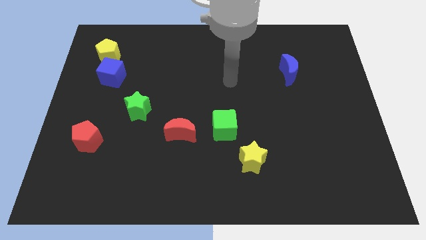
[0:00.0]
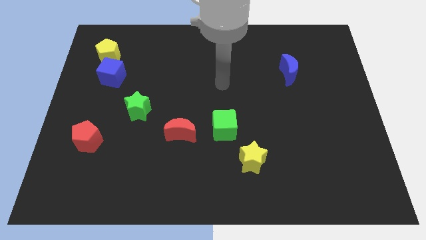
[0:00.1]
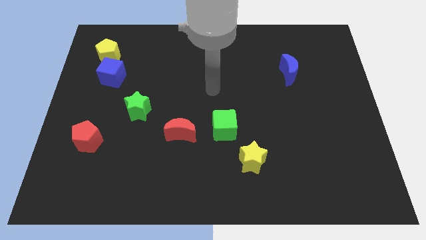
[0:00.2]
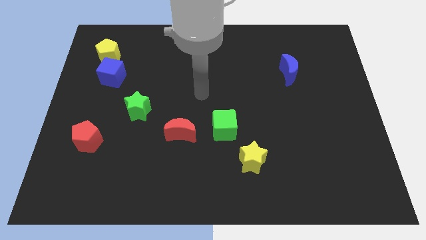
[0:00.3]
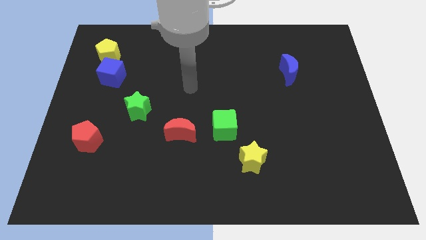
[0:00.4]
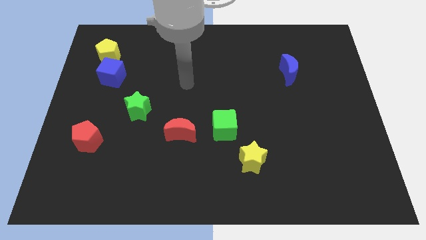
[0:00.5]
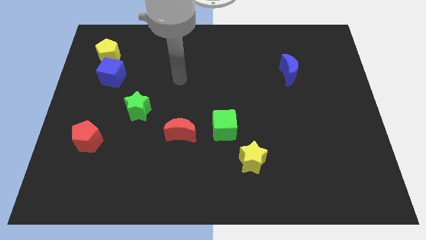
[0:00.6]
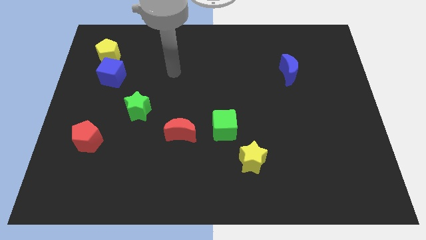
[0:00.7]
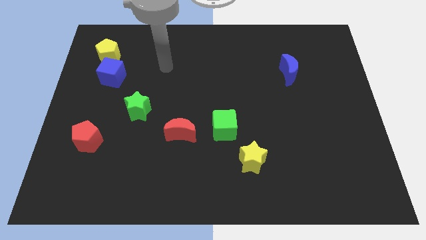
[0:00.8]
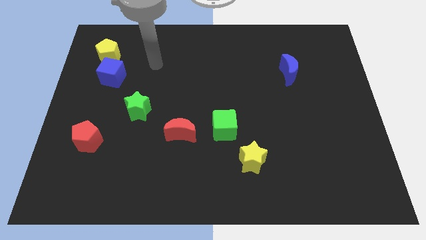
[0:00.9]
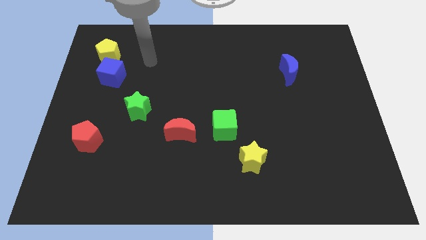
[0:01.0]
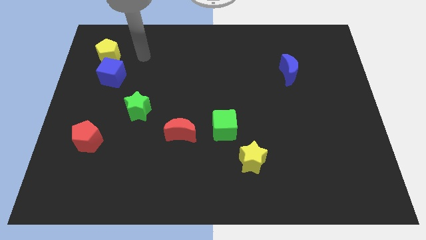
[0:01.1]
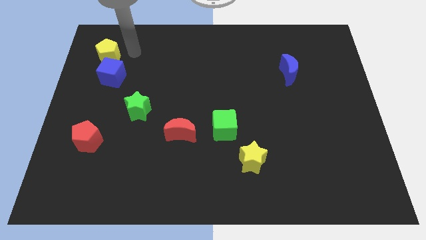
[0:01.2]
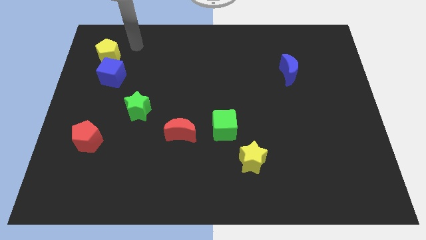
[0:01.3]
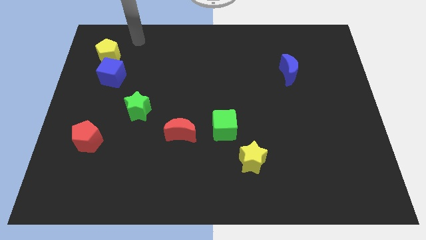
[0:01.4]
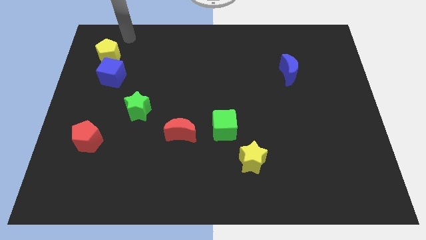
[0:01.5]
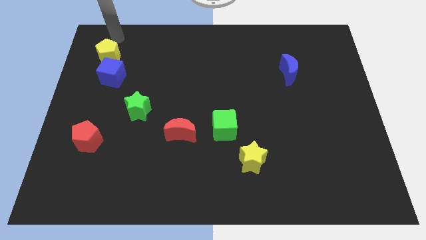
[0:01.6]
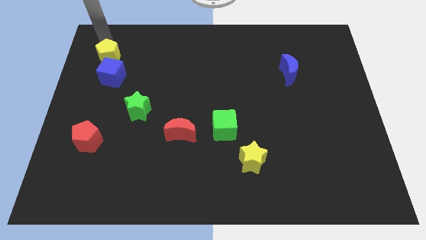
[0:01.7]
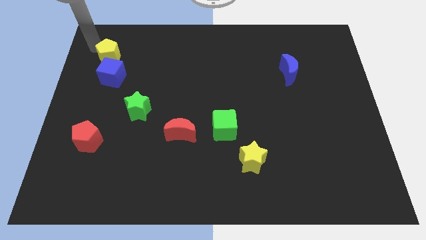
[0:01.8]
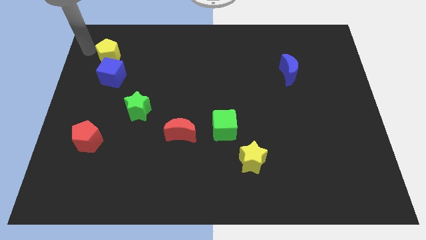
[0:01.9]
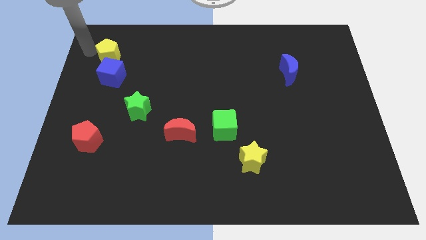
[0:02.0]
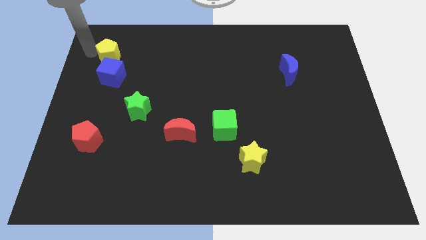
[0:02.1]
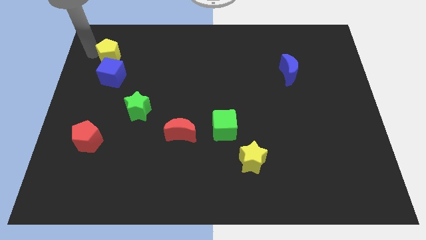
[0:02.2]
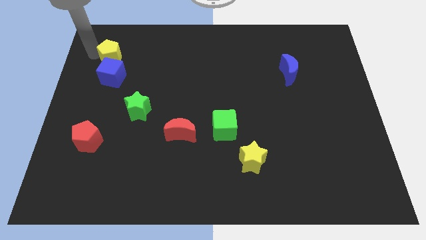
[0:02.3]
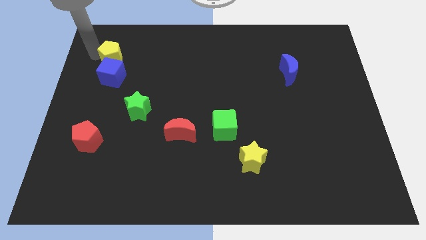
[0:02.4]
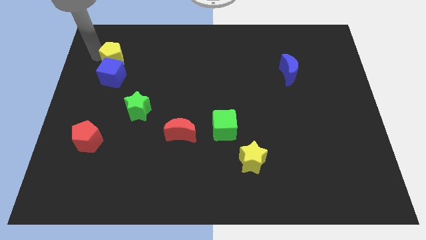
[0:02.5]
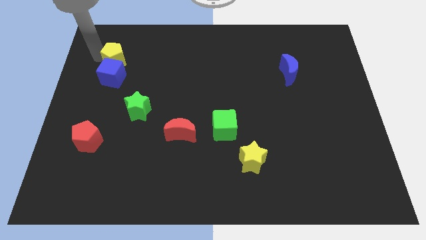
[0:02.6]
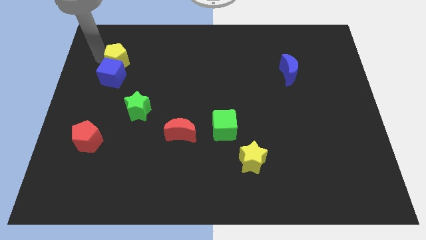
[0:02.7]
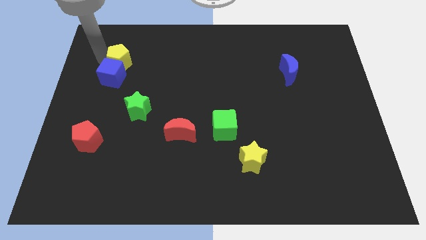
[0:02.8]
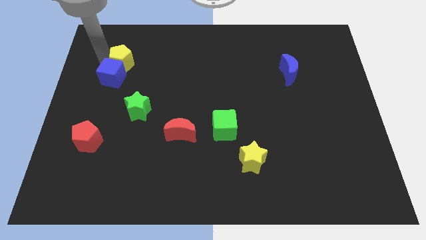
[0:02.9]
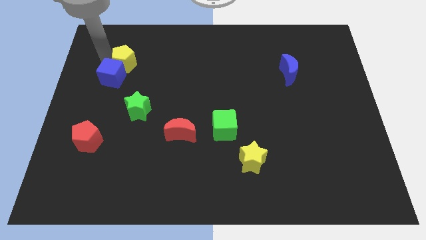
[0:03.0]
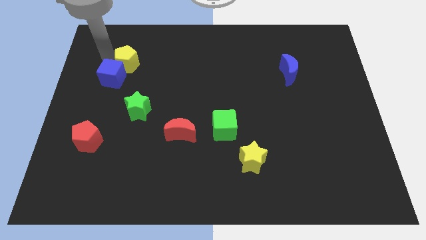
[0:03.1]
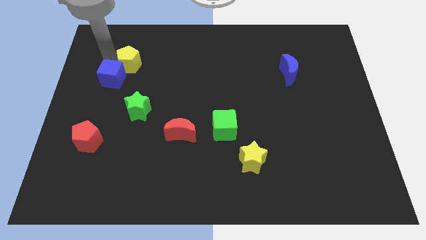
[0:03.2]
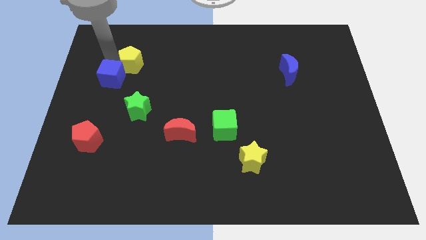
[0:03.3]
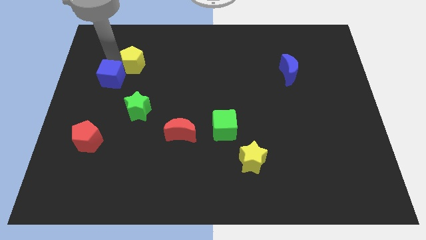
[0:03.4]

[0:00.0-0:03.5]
slightly move the yellow pentagon to the right

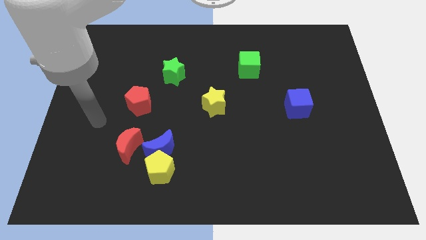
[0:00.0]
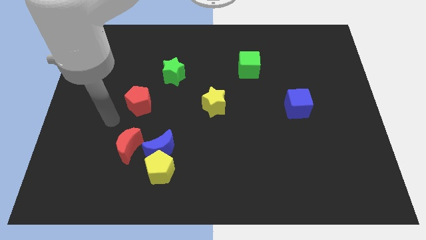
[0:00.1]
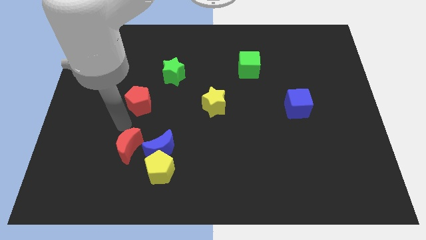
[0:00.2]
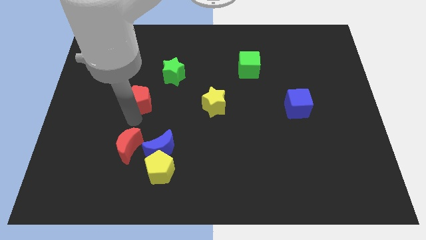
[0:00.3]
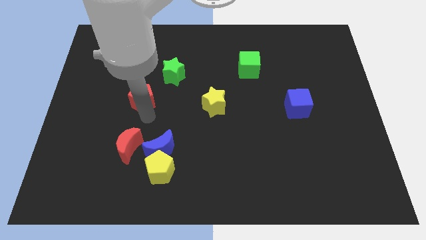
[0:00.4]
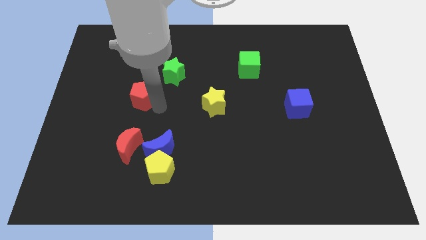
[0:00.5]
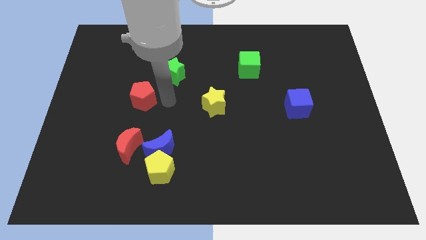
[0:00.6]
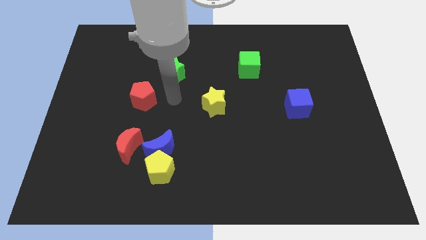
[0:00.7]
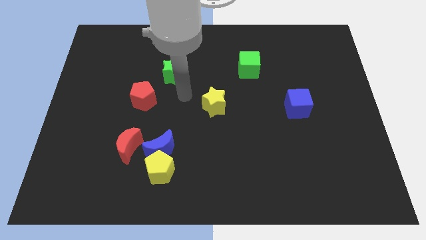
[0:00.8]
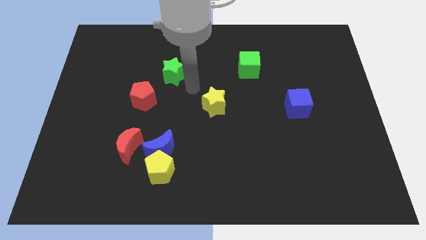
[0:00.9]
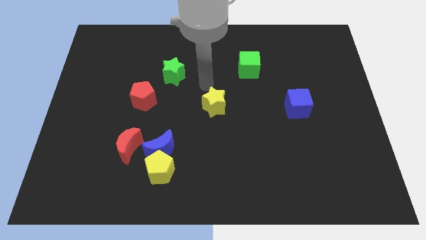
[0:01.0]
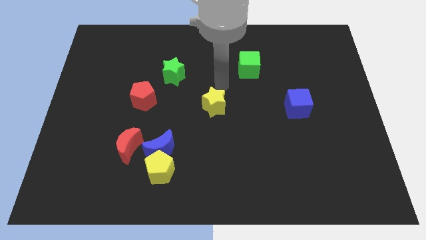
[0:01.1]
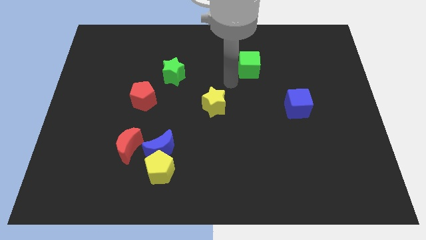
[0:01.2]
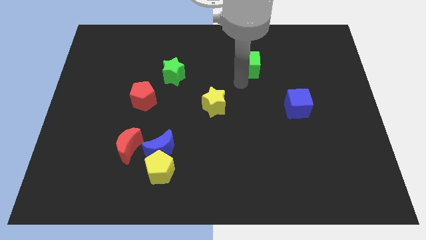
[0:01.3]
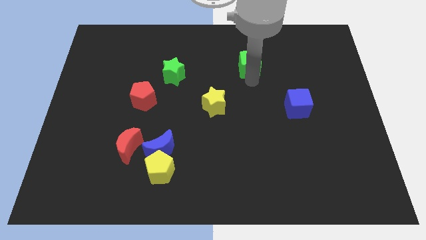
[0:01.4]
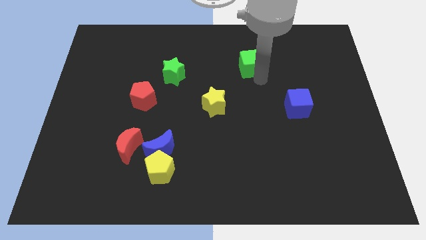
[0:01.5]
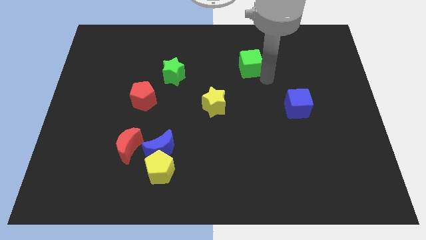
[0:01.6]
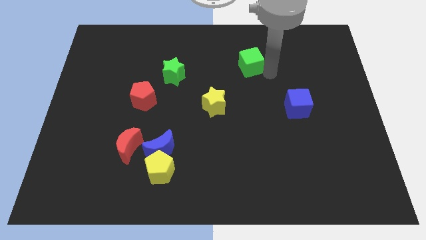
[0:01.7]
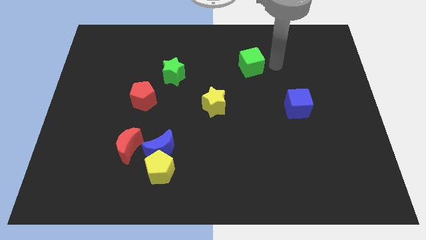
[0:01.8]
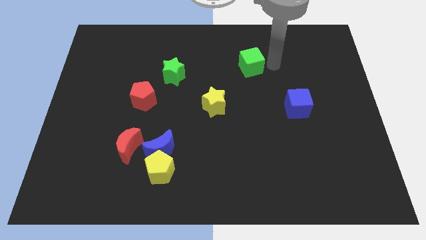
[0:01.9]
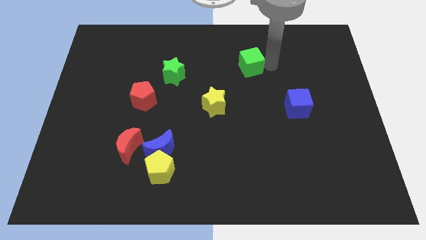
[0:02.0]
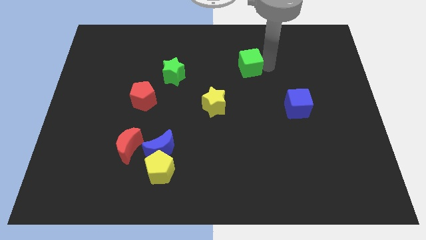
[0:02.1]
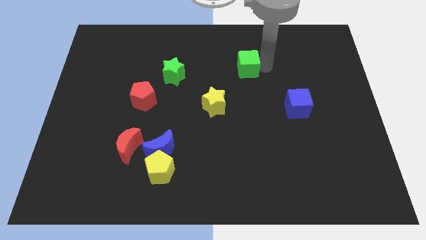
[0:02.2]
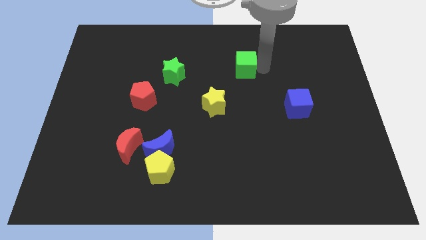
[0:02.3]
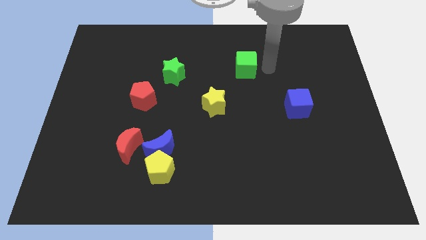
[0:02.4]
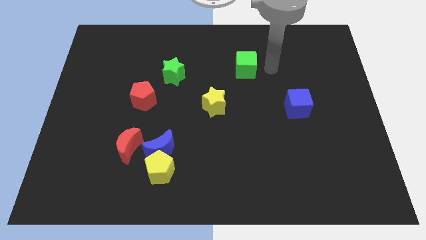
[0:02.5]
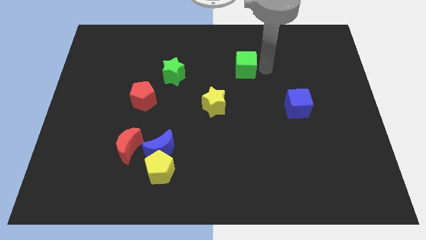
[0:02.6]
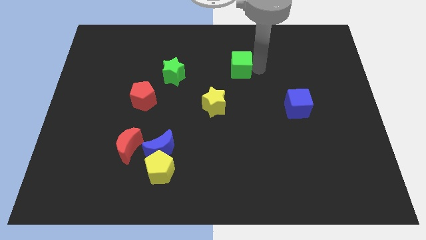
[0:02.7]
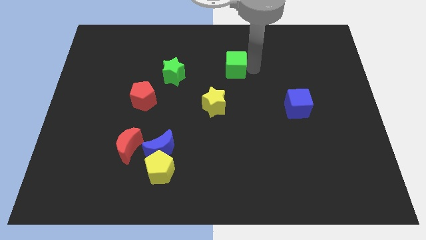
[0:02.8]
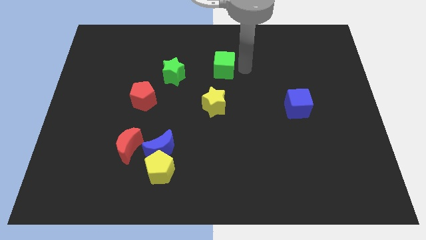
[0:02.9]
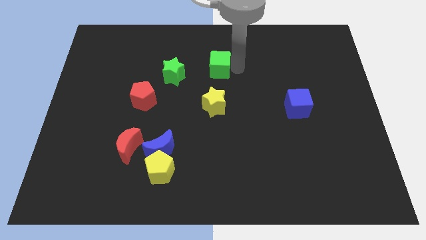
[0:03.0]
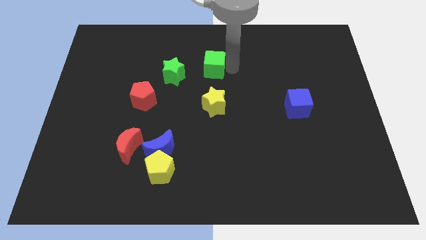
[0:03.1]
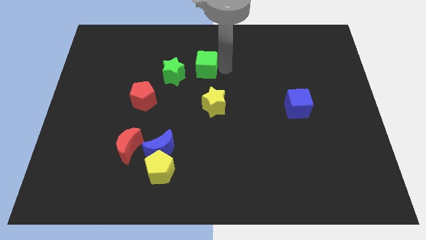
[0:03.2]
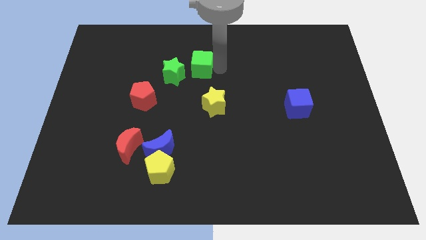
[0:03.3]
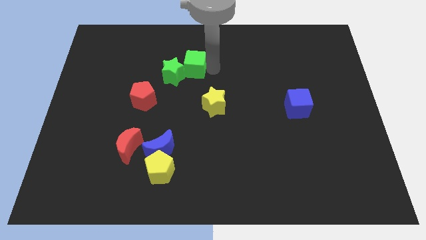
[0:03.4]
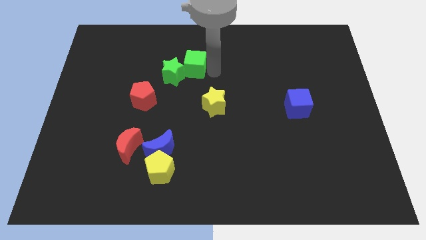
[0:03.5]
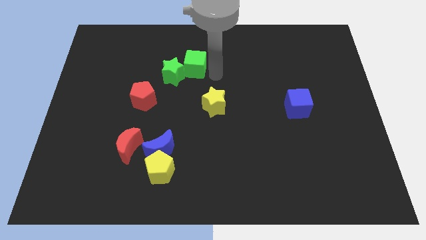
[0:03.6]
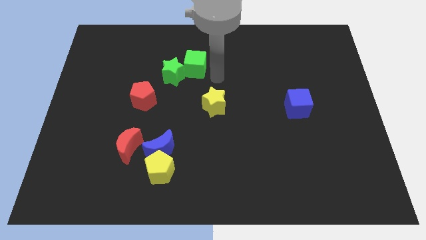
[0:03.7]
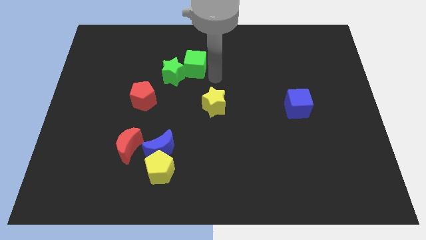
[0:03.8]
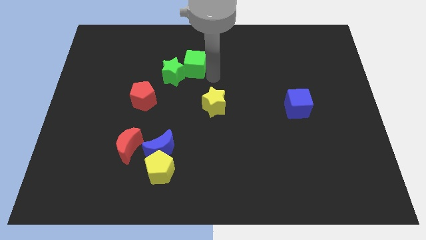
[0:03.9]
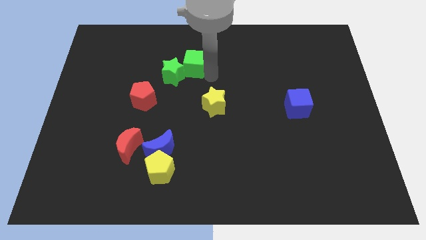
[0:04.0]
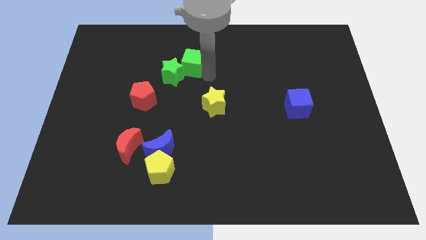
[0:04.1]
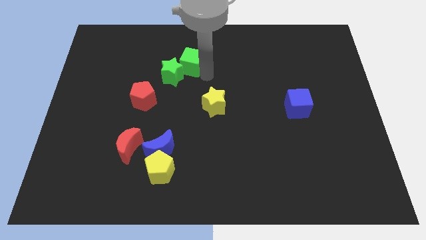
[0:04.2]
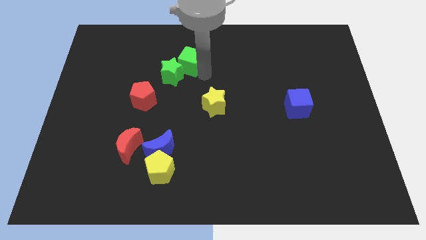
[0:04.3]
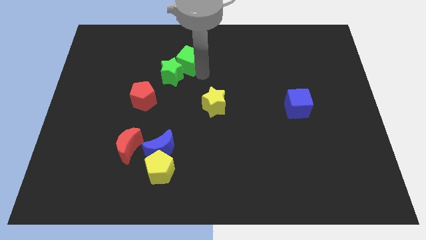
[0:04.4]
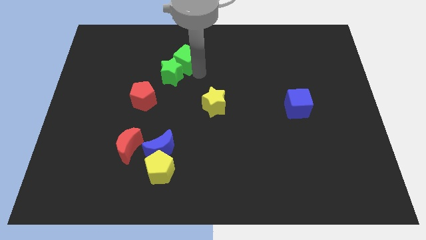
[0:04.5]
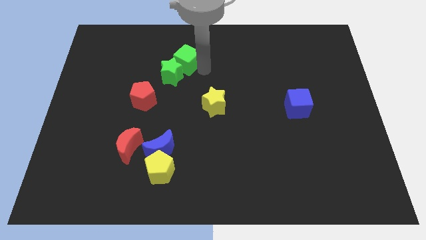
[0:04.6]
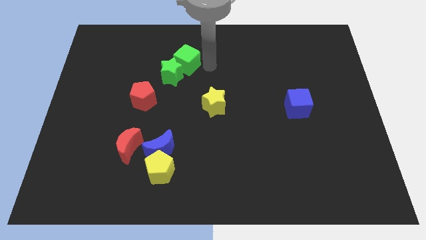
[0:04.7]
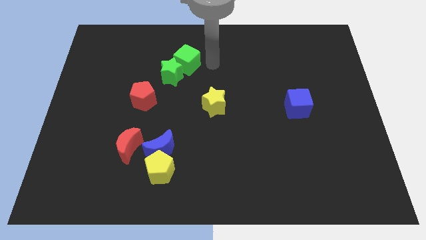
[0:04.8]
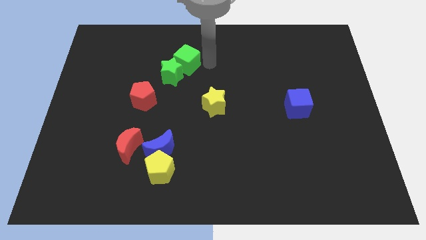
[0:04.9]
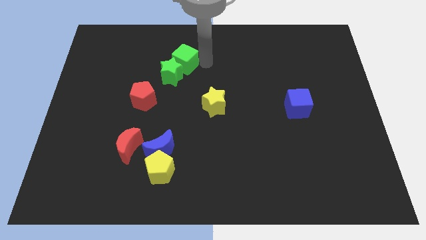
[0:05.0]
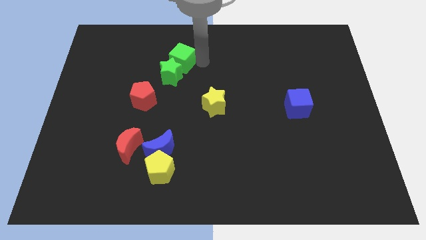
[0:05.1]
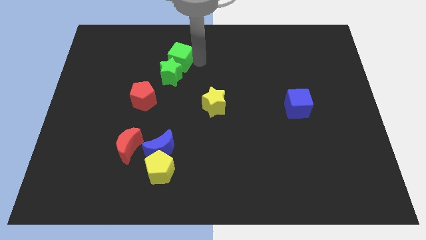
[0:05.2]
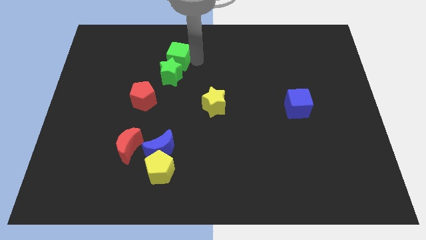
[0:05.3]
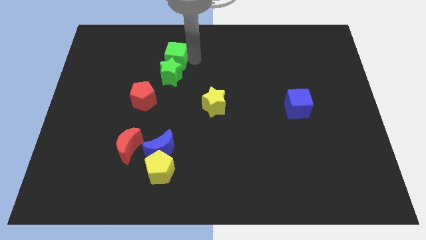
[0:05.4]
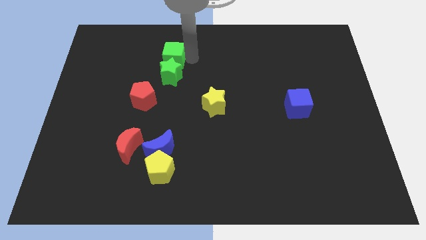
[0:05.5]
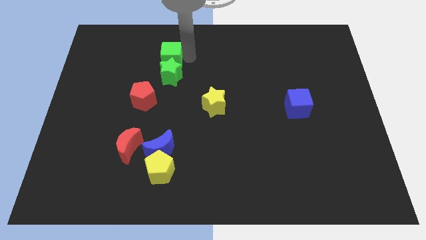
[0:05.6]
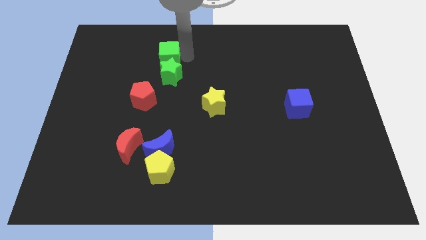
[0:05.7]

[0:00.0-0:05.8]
move the green cube left
